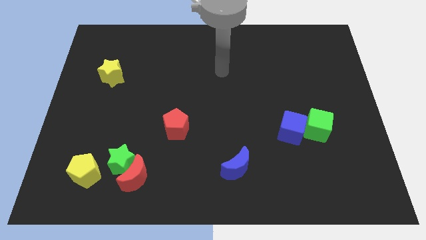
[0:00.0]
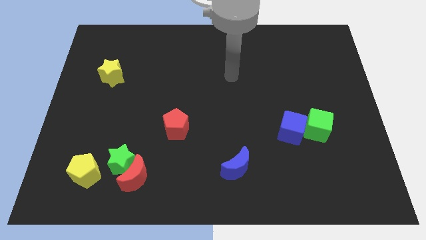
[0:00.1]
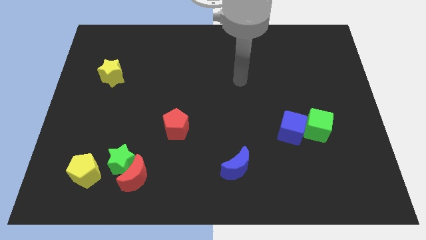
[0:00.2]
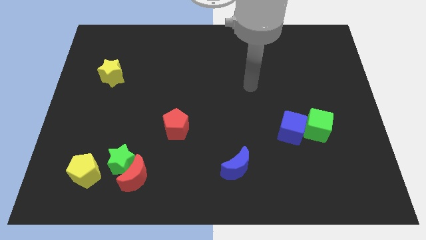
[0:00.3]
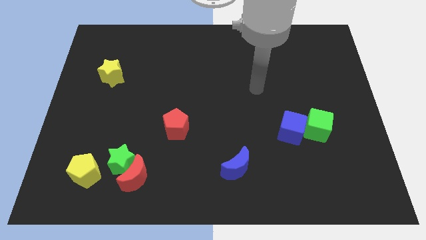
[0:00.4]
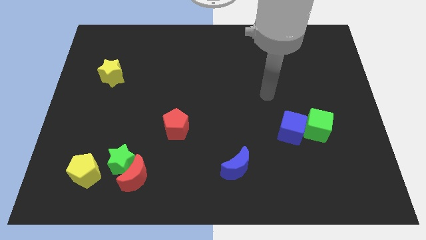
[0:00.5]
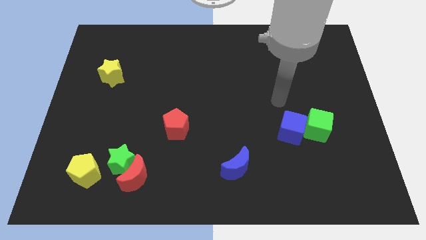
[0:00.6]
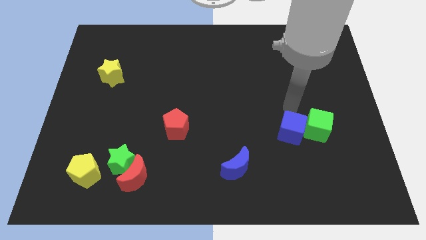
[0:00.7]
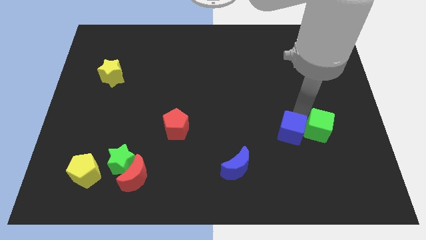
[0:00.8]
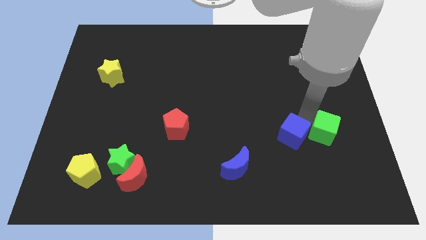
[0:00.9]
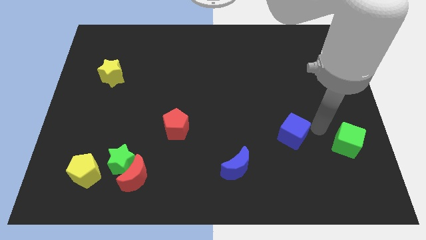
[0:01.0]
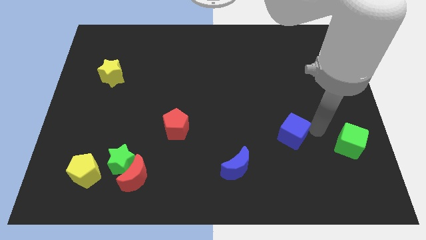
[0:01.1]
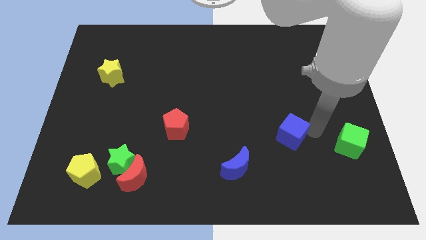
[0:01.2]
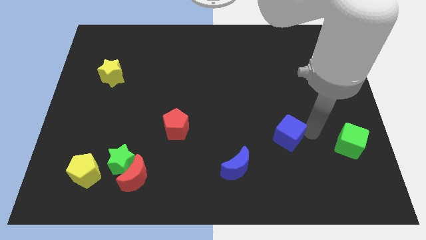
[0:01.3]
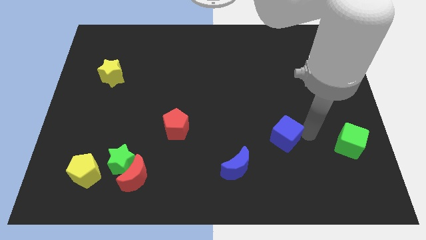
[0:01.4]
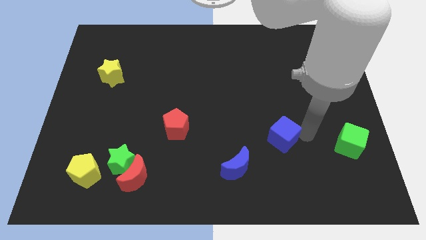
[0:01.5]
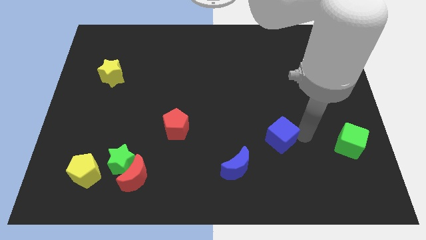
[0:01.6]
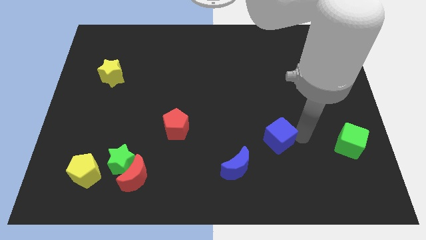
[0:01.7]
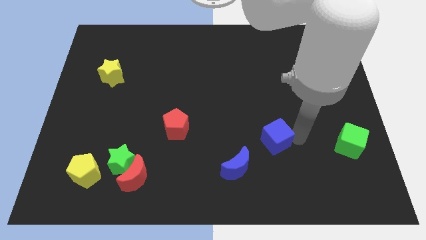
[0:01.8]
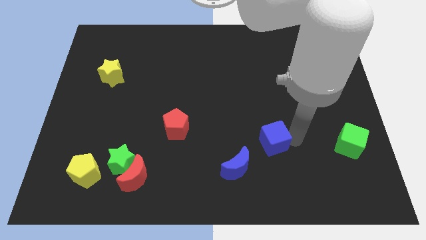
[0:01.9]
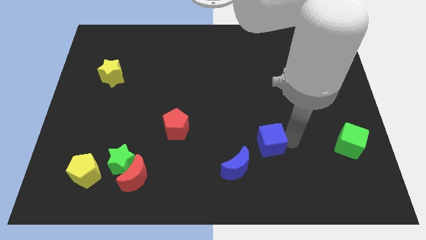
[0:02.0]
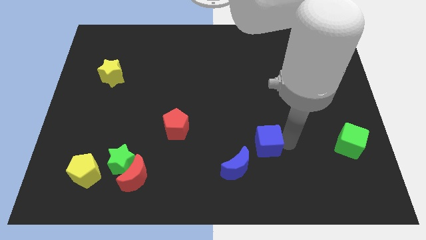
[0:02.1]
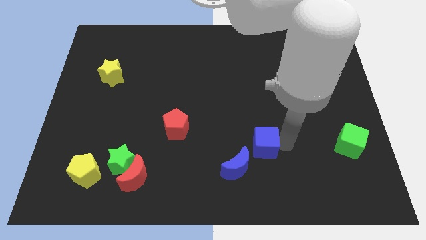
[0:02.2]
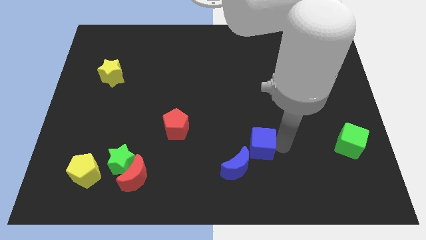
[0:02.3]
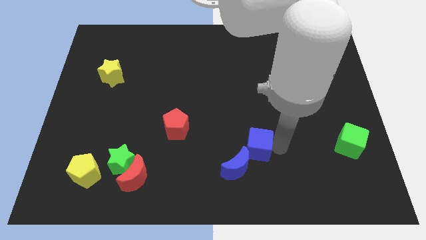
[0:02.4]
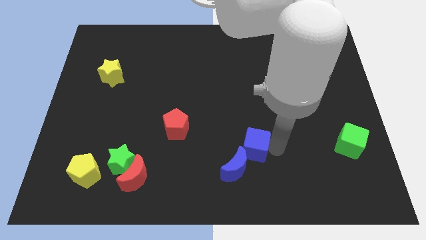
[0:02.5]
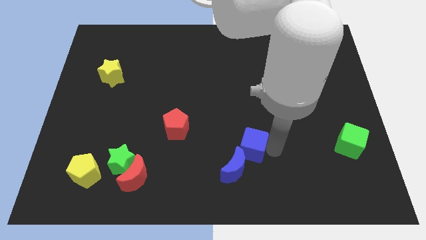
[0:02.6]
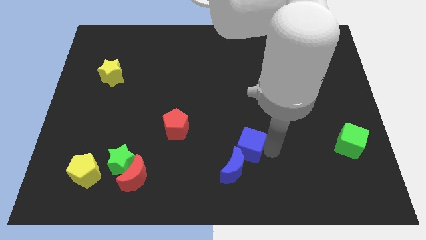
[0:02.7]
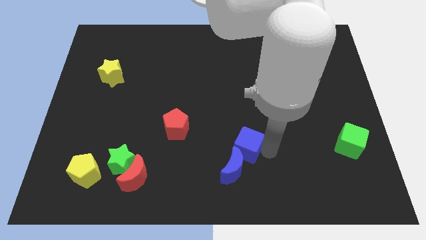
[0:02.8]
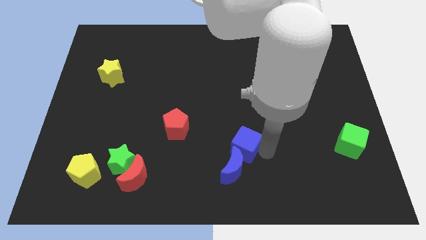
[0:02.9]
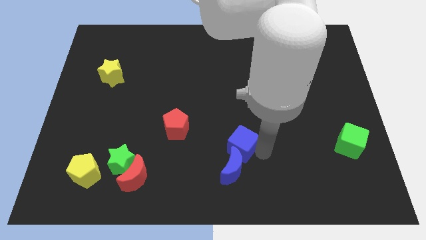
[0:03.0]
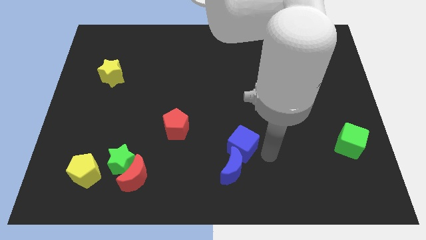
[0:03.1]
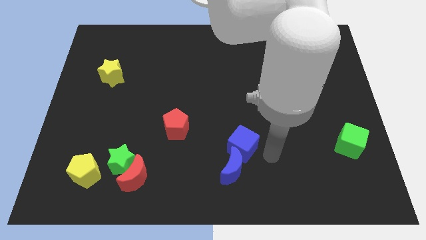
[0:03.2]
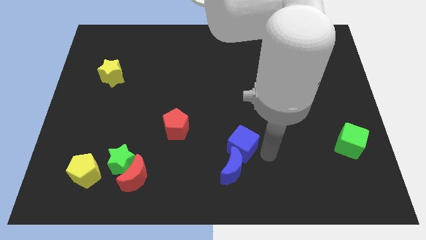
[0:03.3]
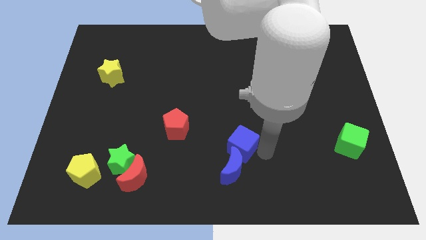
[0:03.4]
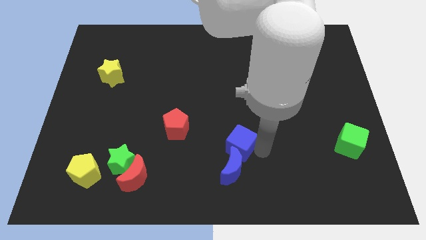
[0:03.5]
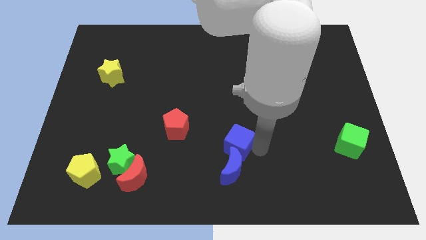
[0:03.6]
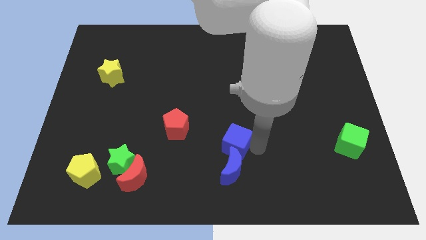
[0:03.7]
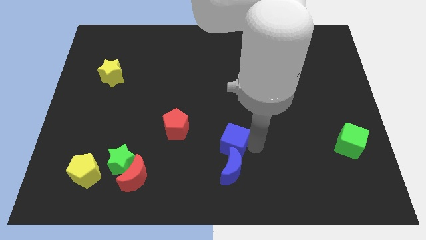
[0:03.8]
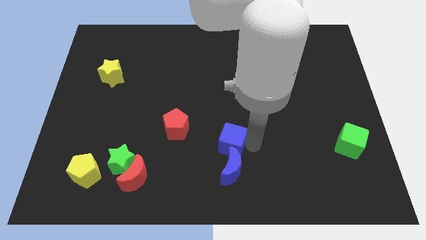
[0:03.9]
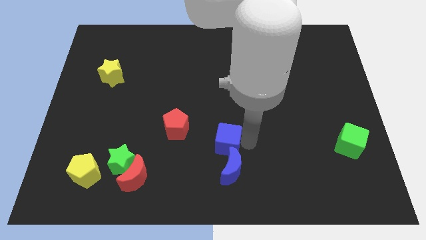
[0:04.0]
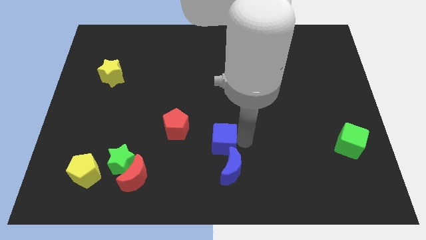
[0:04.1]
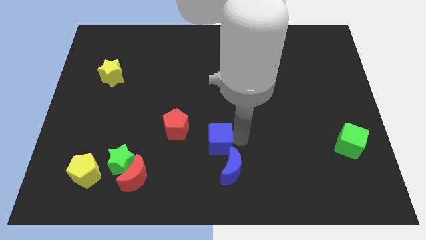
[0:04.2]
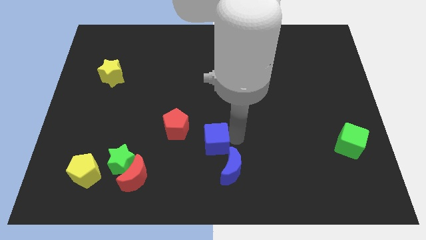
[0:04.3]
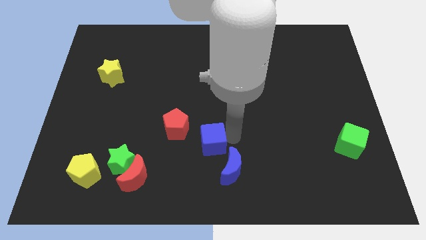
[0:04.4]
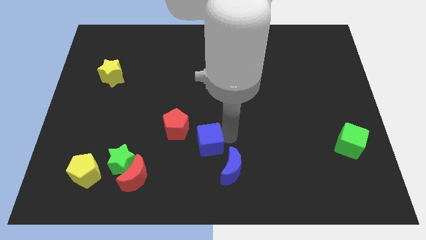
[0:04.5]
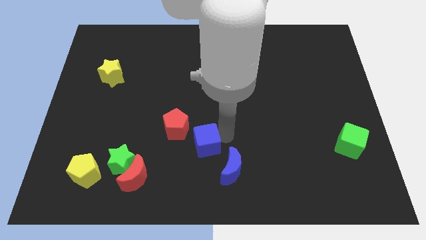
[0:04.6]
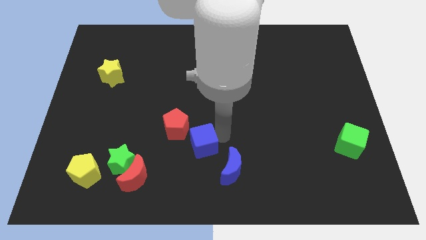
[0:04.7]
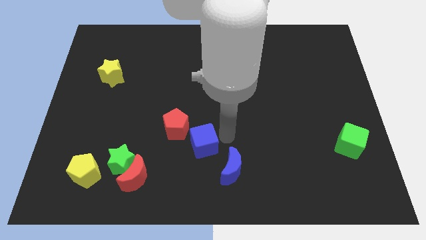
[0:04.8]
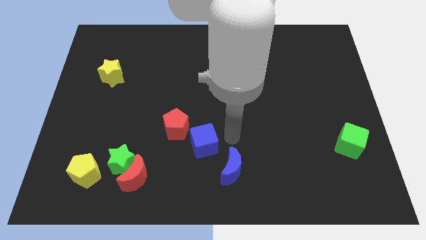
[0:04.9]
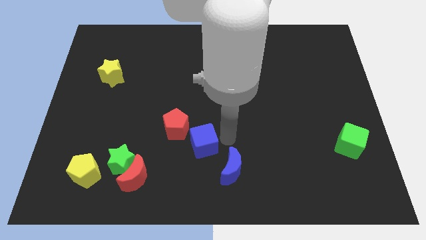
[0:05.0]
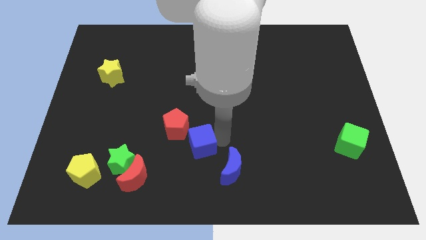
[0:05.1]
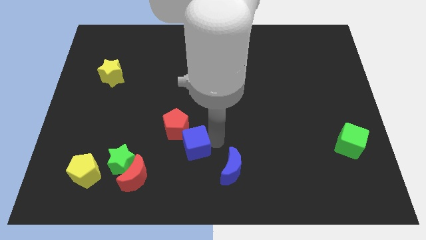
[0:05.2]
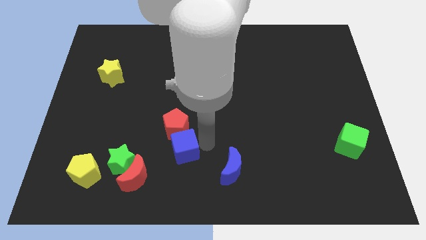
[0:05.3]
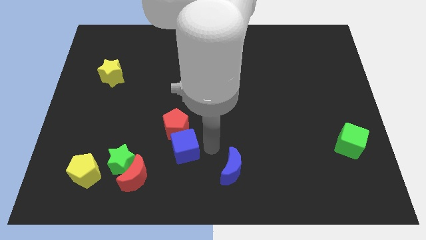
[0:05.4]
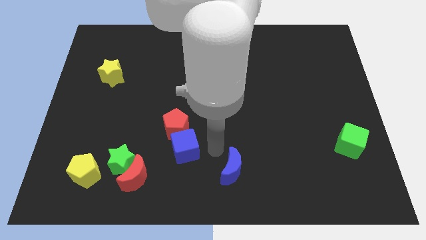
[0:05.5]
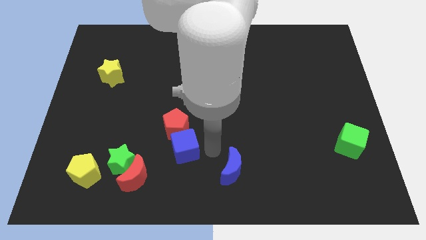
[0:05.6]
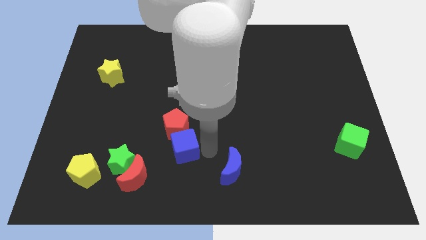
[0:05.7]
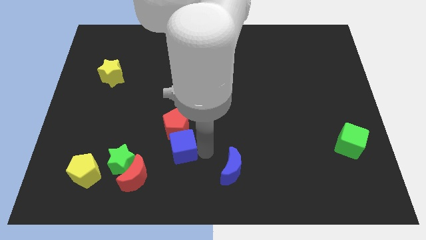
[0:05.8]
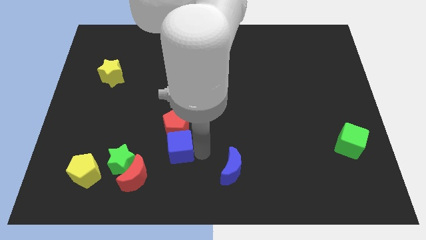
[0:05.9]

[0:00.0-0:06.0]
put the blue cube diagonally down and to the left of the red pentagon

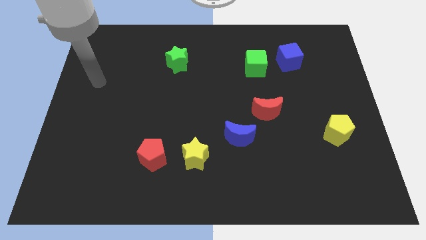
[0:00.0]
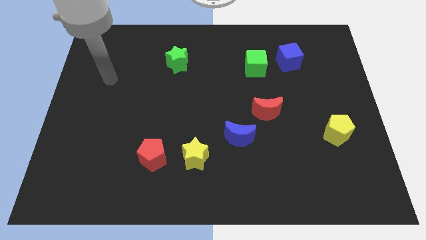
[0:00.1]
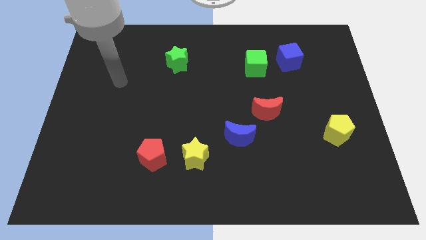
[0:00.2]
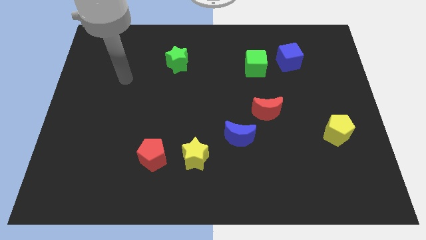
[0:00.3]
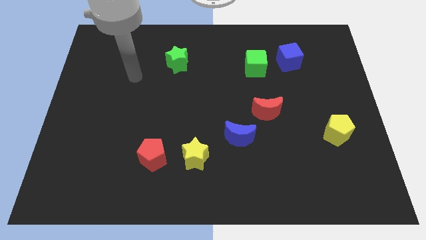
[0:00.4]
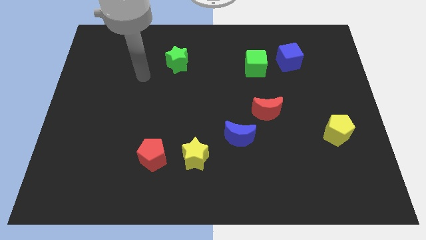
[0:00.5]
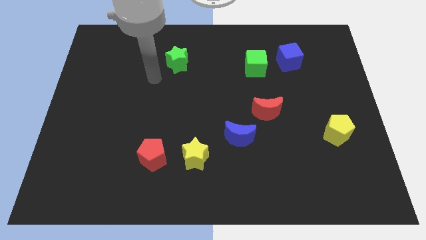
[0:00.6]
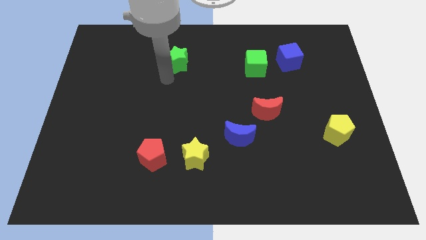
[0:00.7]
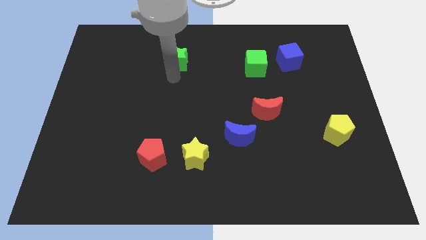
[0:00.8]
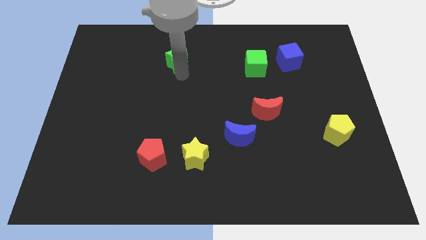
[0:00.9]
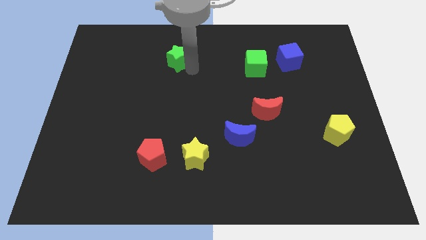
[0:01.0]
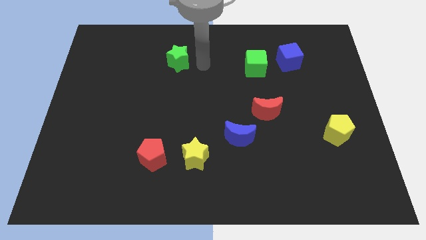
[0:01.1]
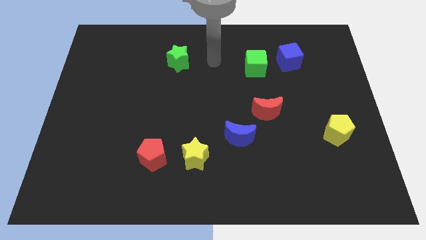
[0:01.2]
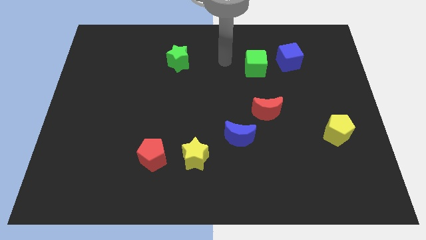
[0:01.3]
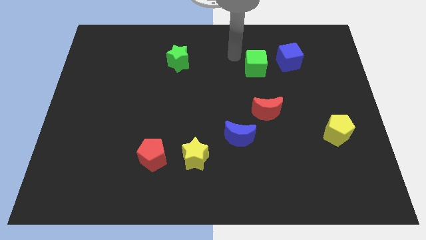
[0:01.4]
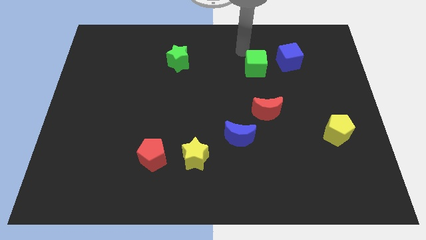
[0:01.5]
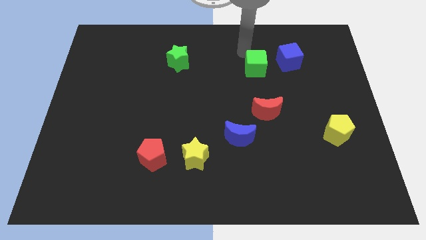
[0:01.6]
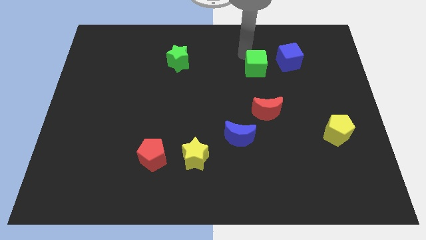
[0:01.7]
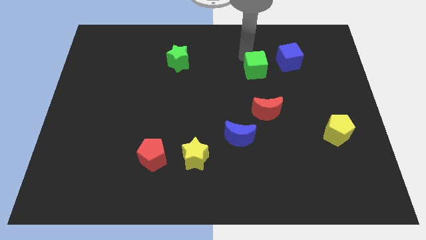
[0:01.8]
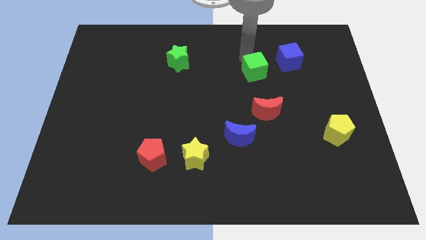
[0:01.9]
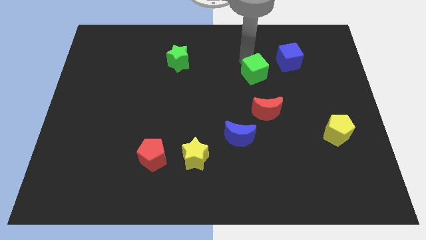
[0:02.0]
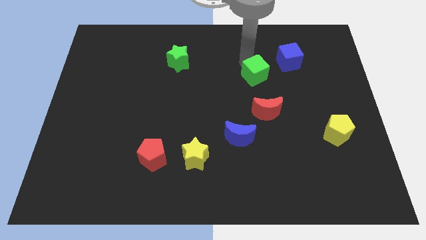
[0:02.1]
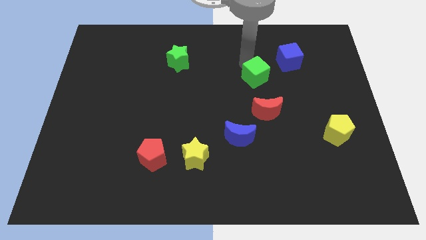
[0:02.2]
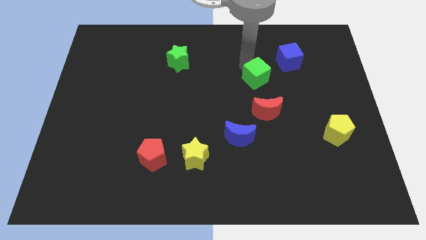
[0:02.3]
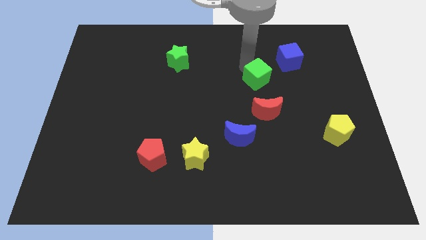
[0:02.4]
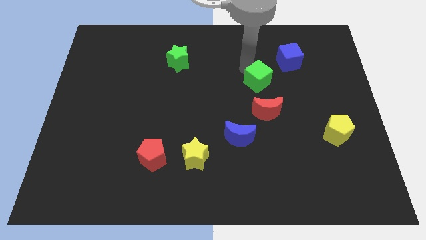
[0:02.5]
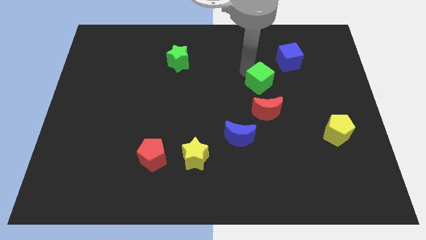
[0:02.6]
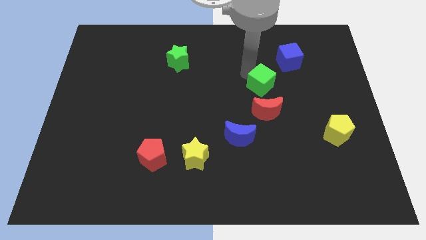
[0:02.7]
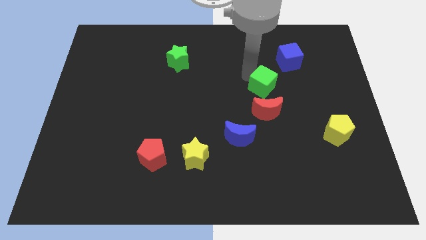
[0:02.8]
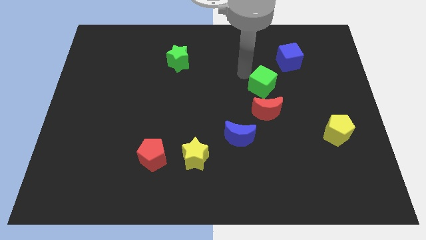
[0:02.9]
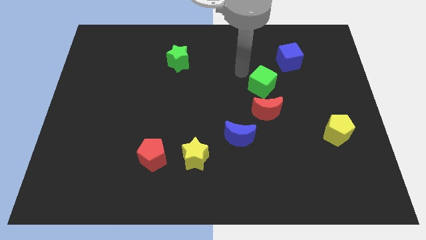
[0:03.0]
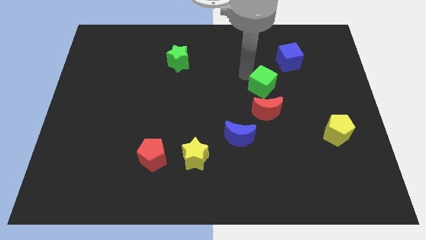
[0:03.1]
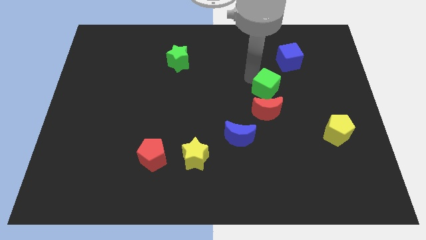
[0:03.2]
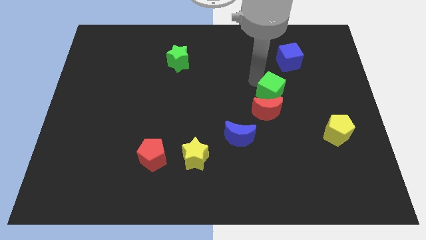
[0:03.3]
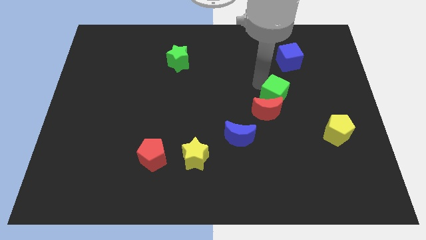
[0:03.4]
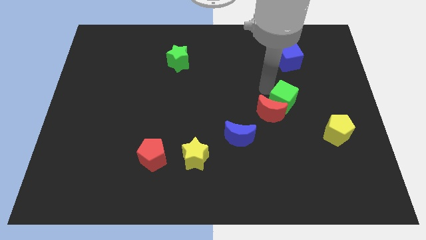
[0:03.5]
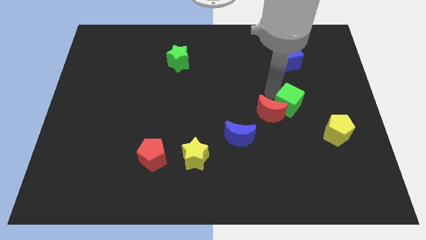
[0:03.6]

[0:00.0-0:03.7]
put the green cube to the top left of the yellow pentagon
